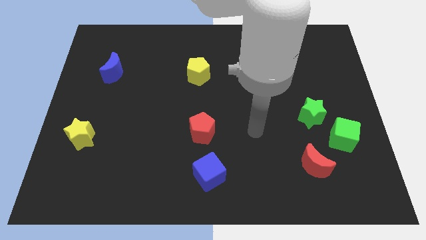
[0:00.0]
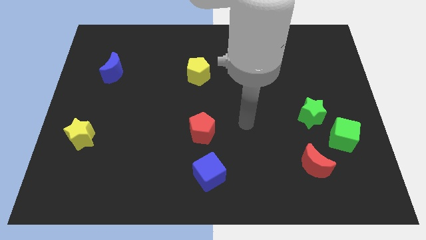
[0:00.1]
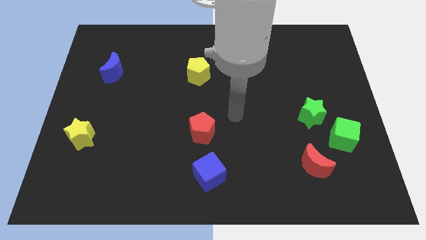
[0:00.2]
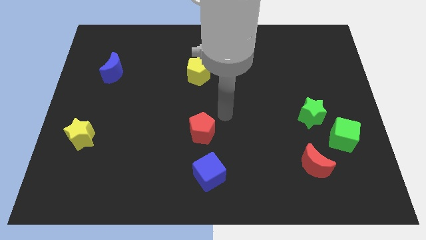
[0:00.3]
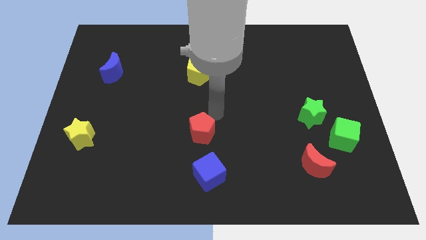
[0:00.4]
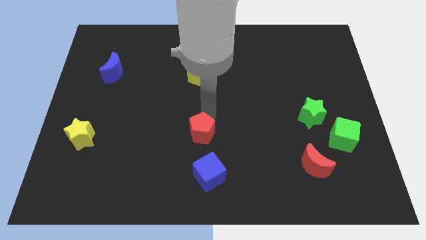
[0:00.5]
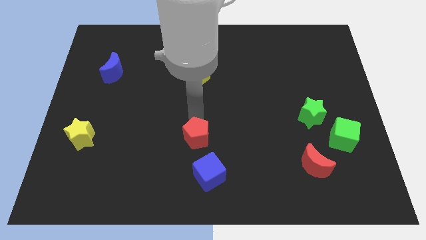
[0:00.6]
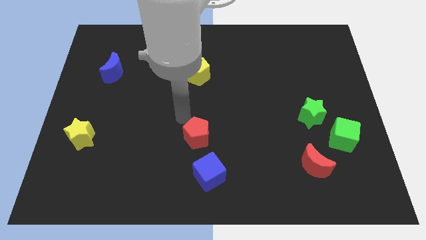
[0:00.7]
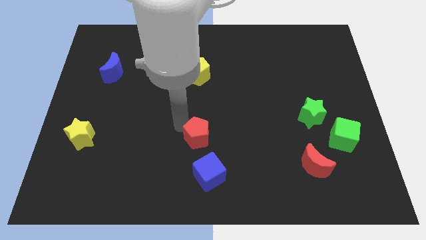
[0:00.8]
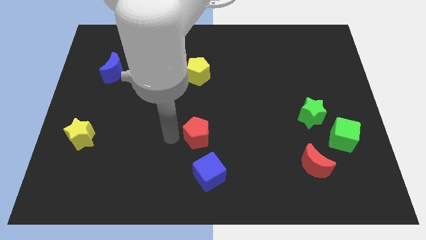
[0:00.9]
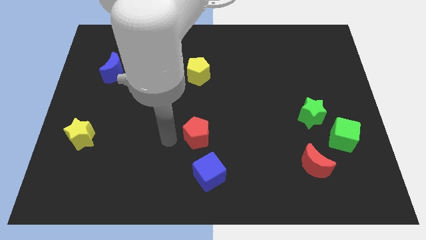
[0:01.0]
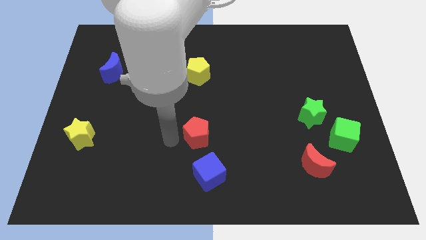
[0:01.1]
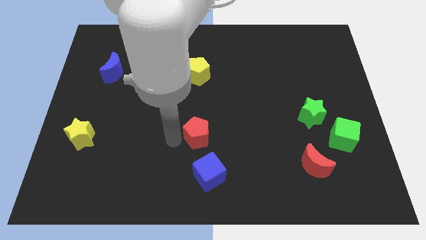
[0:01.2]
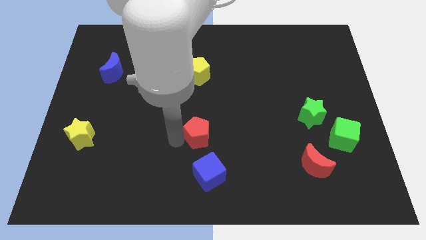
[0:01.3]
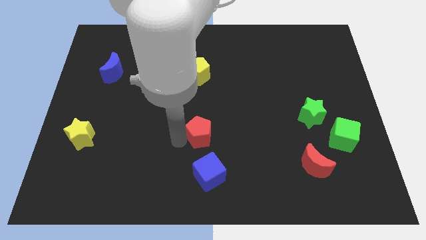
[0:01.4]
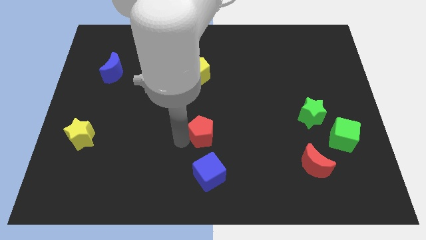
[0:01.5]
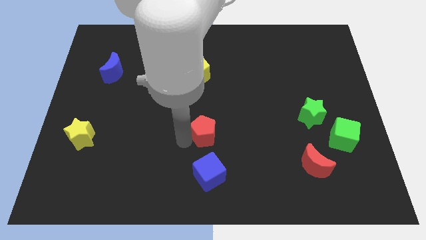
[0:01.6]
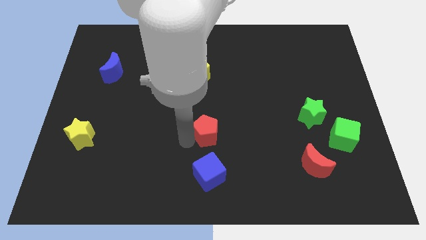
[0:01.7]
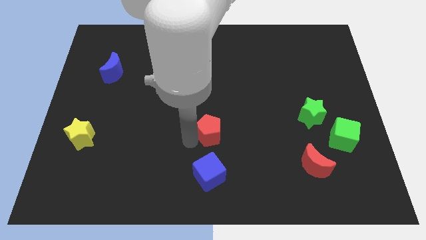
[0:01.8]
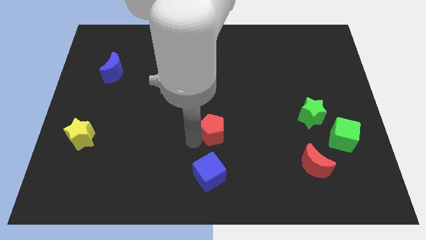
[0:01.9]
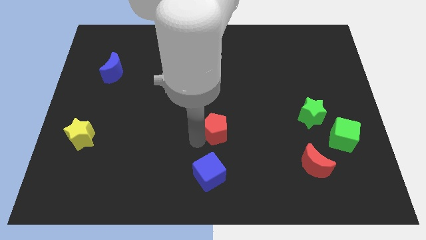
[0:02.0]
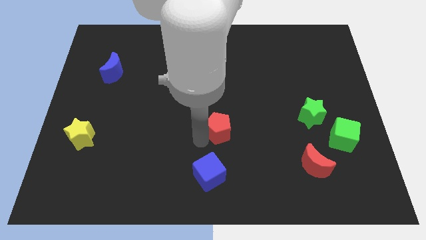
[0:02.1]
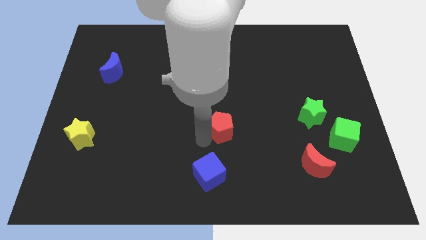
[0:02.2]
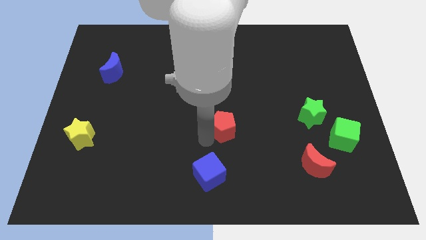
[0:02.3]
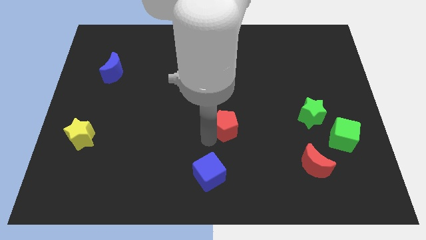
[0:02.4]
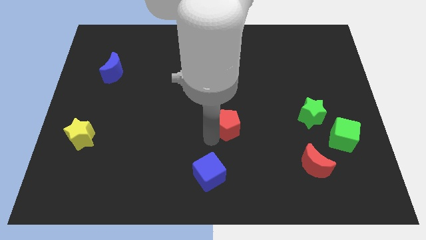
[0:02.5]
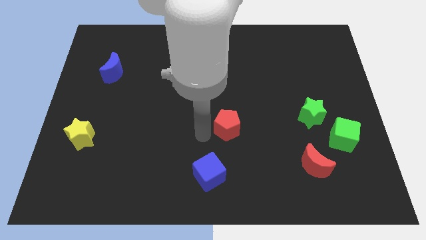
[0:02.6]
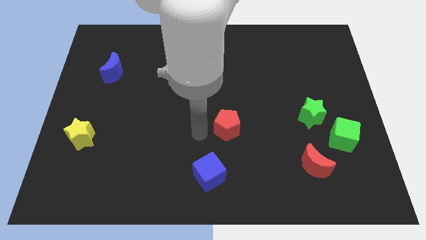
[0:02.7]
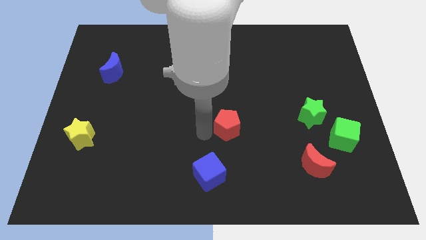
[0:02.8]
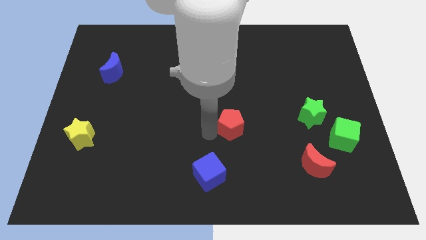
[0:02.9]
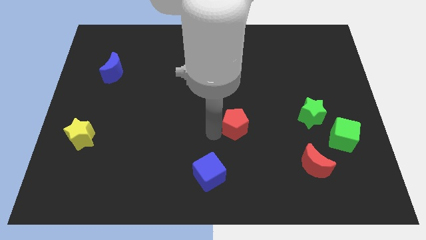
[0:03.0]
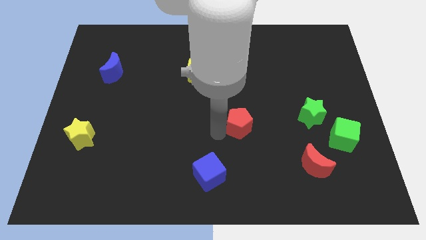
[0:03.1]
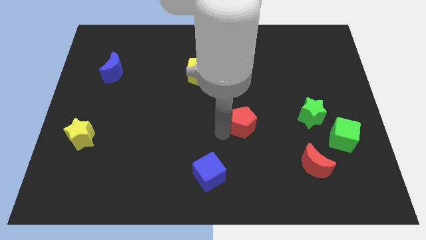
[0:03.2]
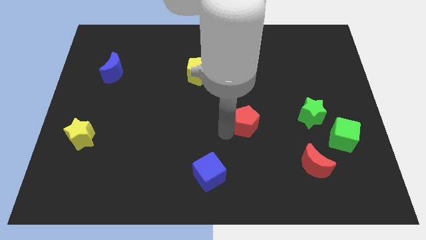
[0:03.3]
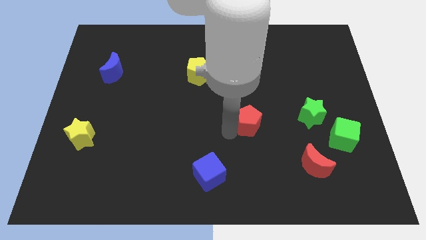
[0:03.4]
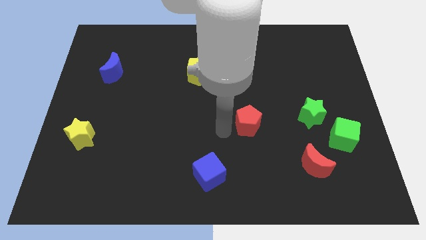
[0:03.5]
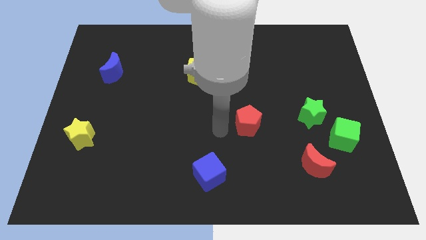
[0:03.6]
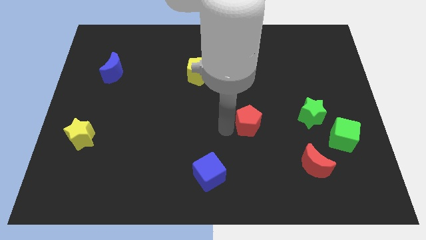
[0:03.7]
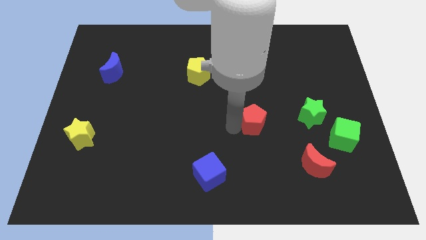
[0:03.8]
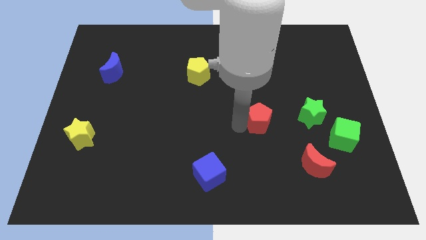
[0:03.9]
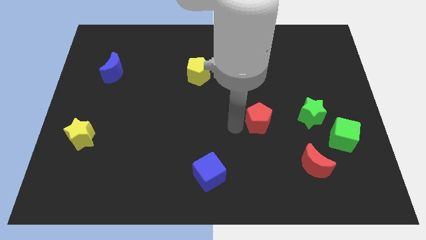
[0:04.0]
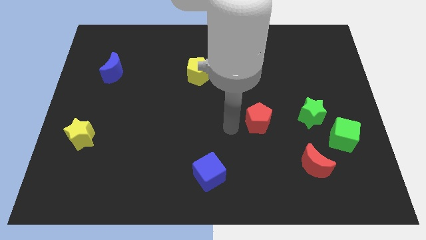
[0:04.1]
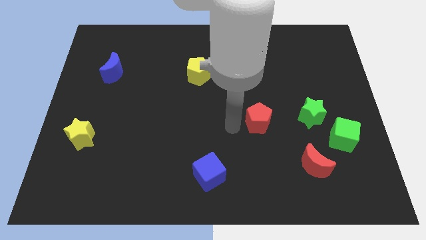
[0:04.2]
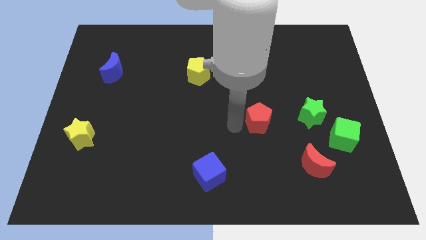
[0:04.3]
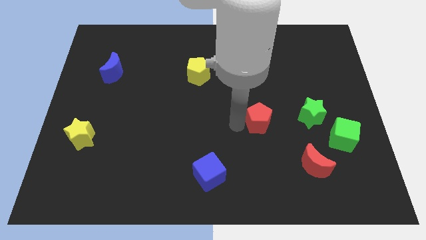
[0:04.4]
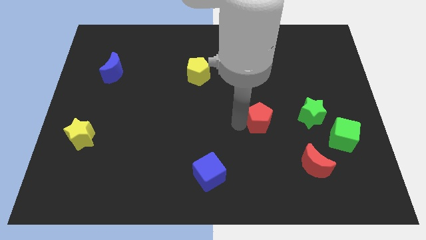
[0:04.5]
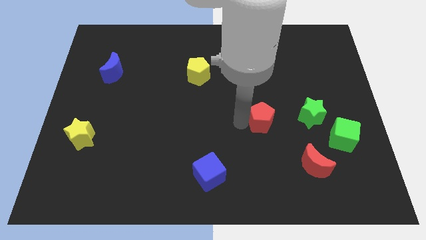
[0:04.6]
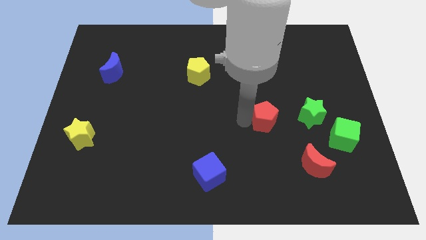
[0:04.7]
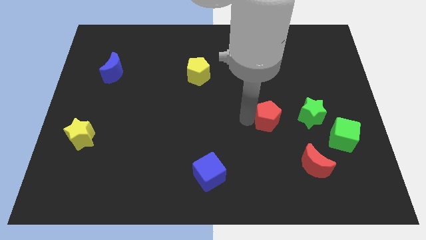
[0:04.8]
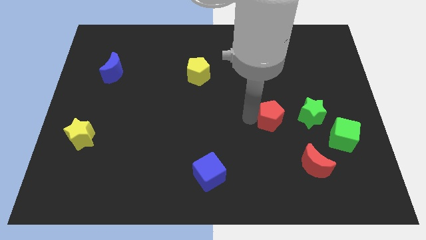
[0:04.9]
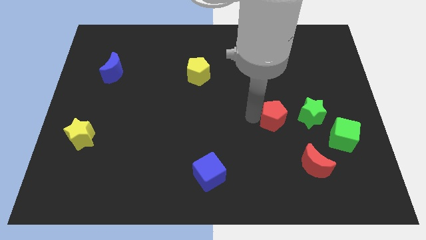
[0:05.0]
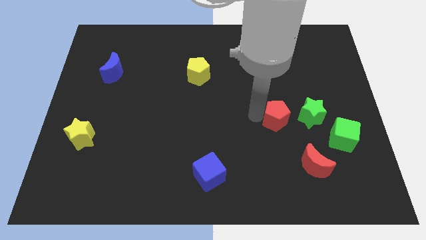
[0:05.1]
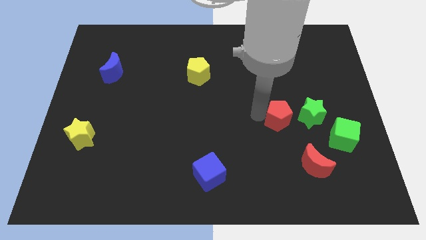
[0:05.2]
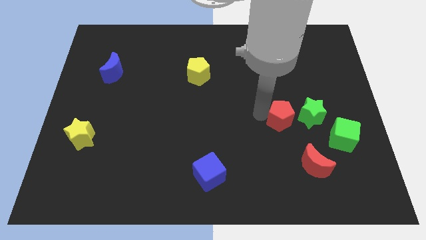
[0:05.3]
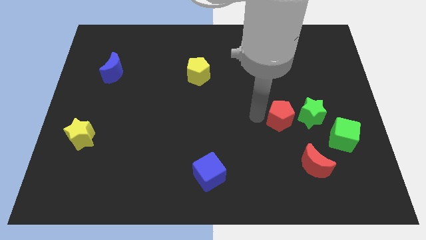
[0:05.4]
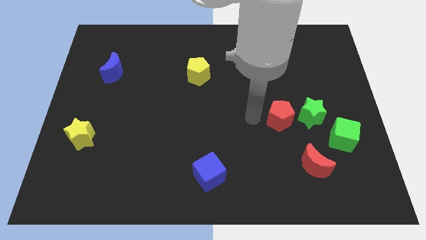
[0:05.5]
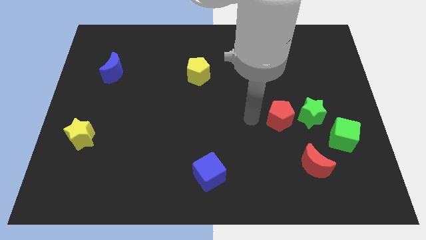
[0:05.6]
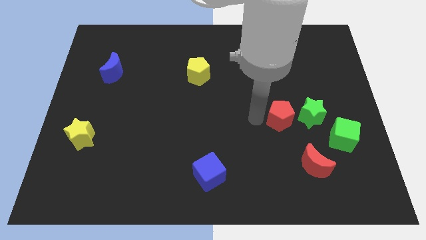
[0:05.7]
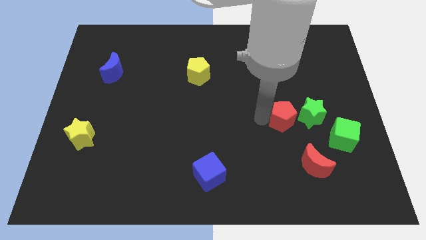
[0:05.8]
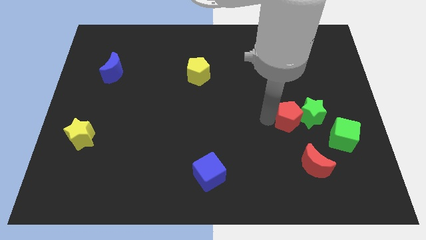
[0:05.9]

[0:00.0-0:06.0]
put the red pentagon towards the green star

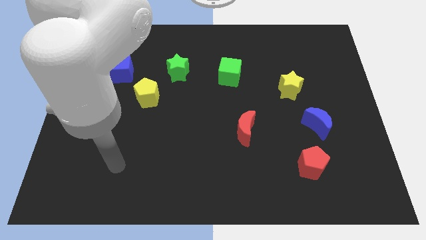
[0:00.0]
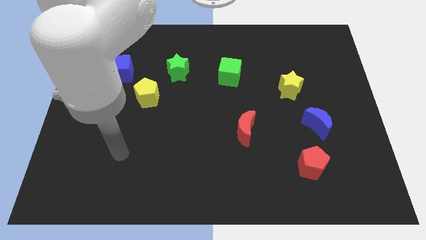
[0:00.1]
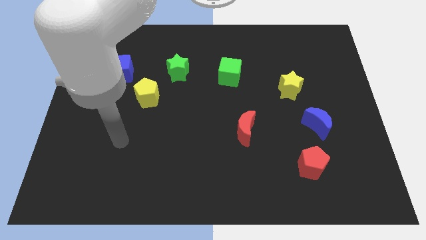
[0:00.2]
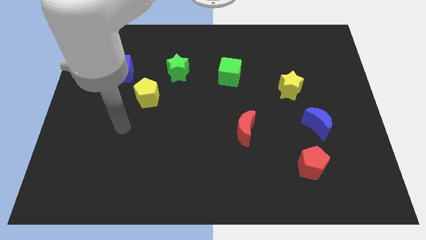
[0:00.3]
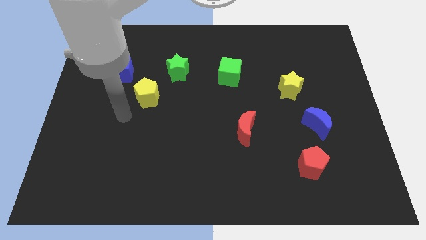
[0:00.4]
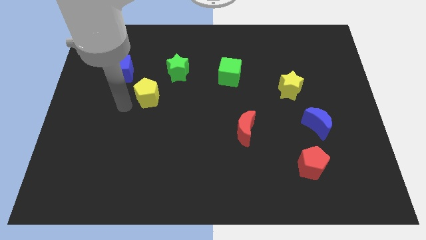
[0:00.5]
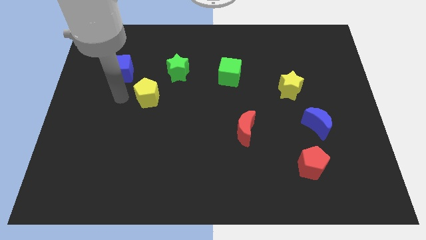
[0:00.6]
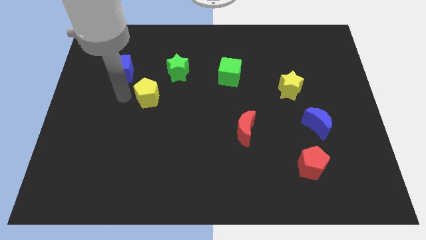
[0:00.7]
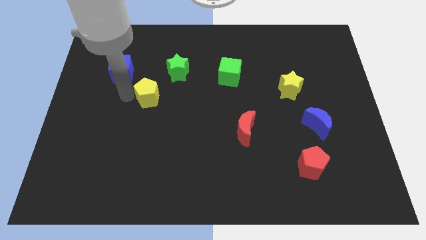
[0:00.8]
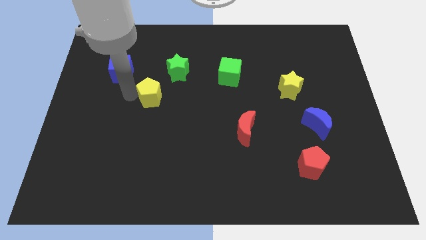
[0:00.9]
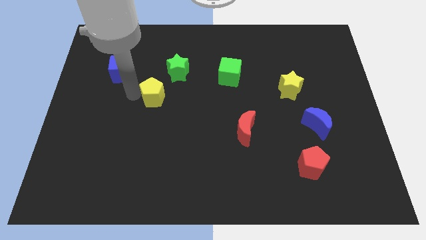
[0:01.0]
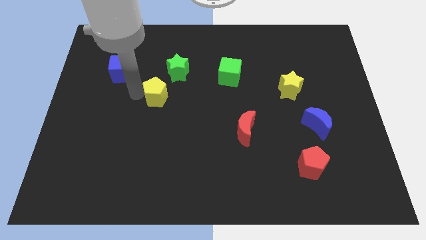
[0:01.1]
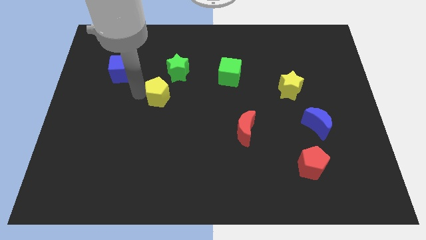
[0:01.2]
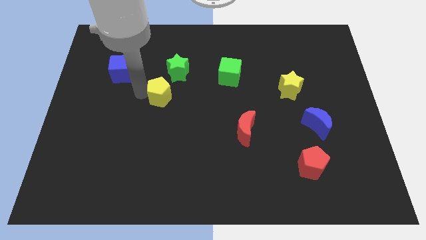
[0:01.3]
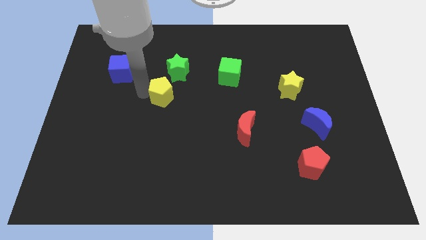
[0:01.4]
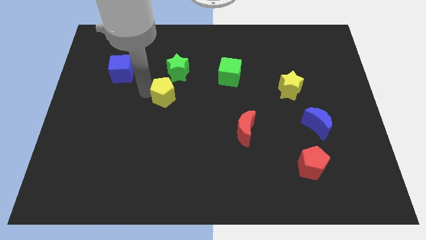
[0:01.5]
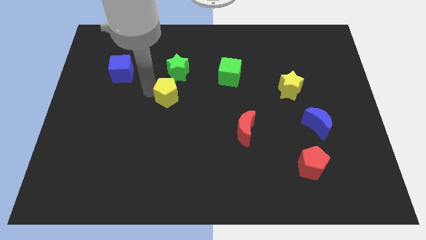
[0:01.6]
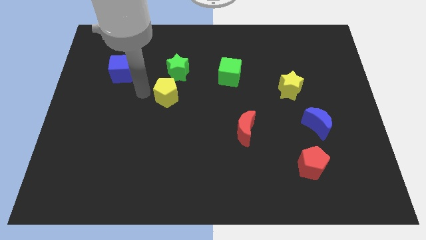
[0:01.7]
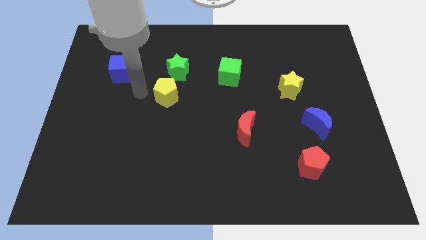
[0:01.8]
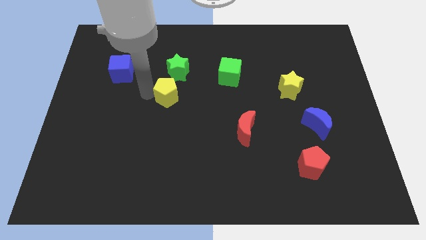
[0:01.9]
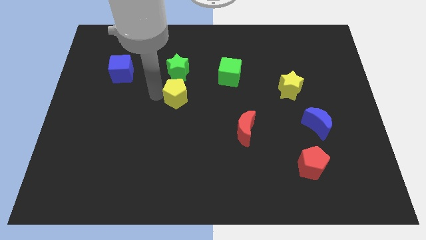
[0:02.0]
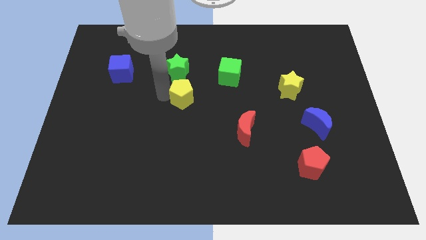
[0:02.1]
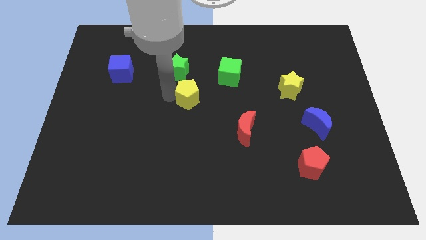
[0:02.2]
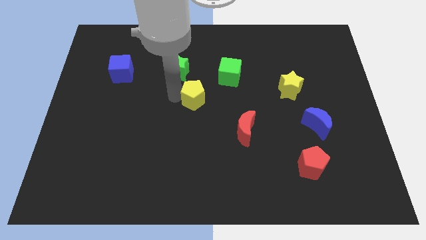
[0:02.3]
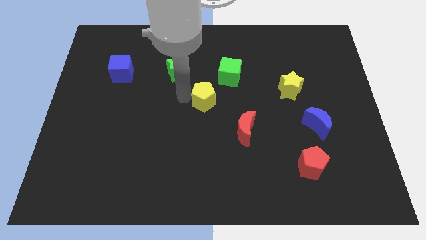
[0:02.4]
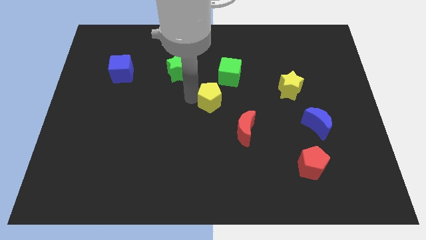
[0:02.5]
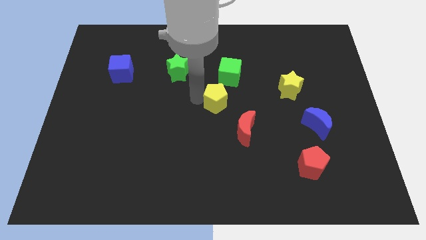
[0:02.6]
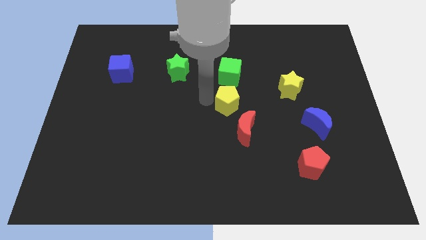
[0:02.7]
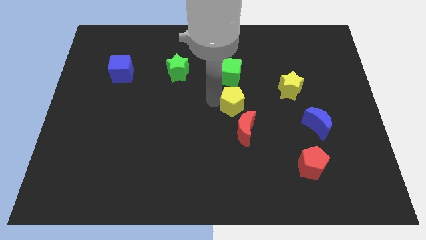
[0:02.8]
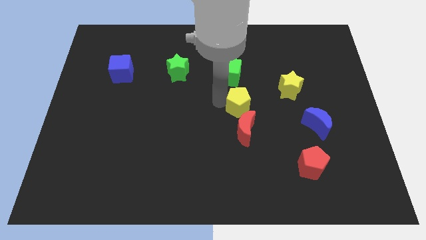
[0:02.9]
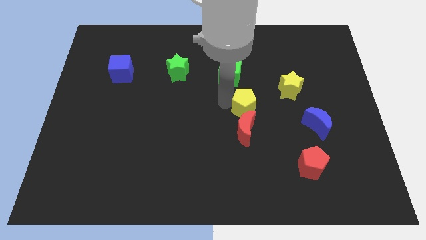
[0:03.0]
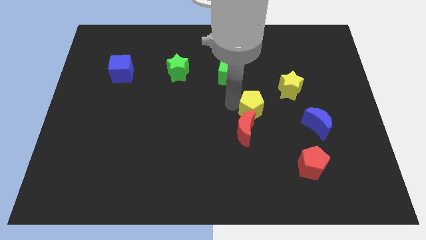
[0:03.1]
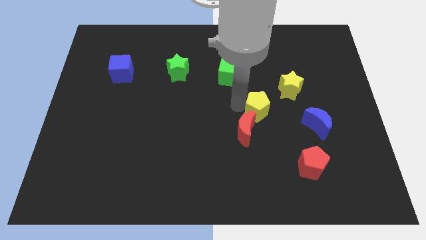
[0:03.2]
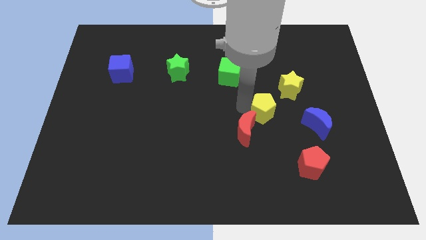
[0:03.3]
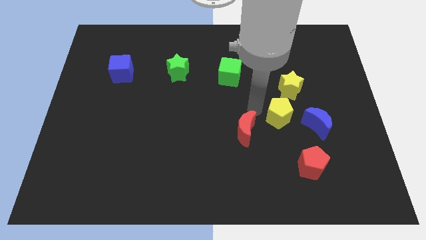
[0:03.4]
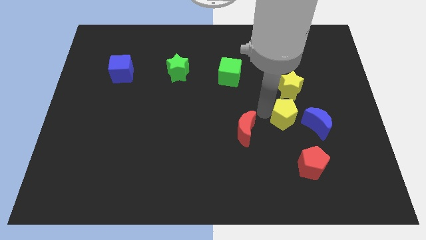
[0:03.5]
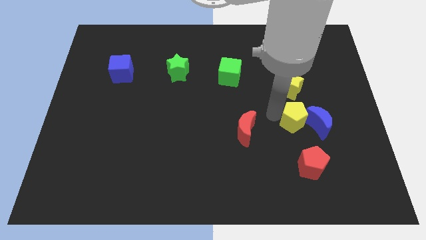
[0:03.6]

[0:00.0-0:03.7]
push the yellow pentagon next to the blue moon
